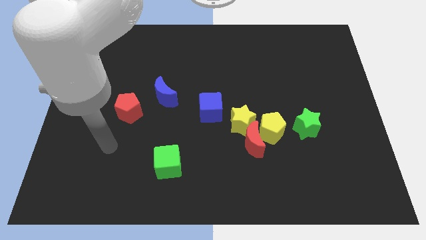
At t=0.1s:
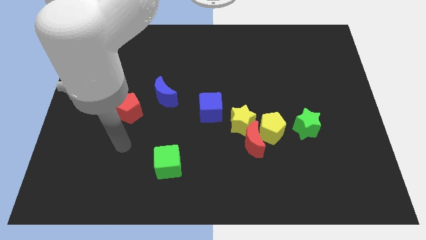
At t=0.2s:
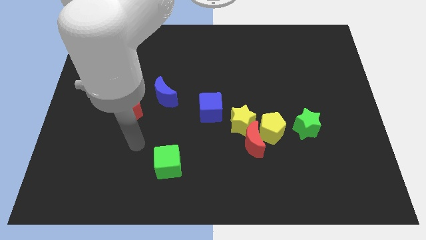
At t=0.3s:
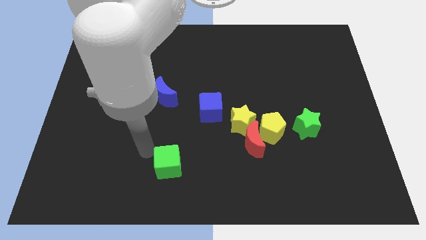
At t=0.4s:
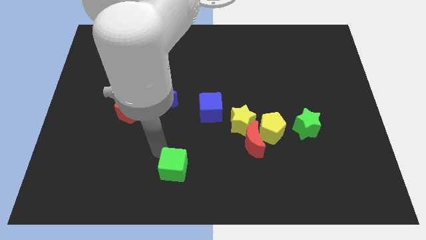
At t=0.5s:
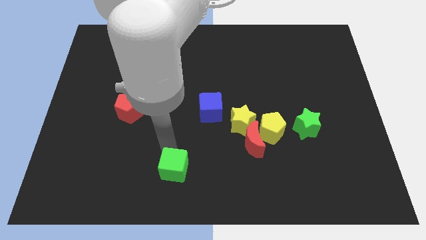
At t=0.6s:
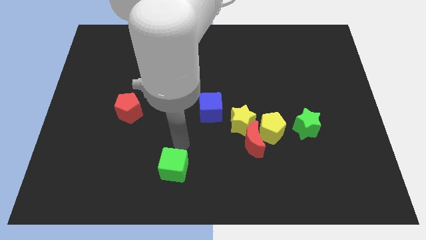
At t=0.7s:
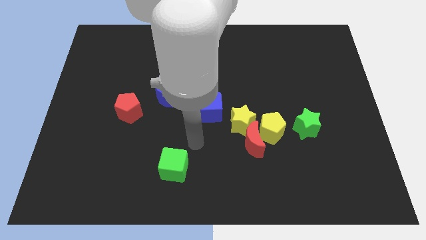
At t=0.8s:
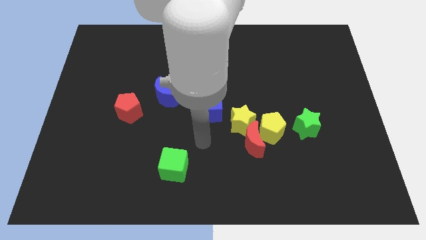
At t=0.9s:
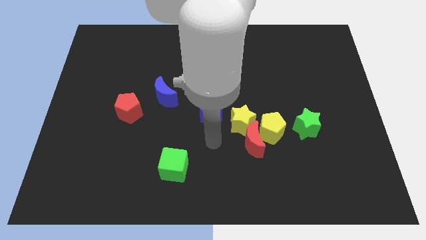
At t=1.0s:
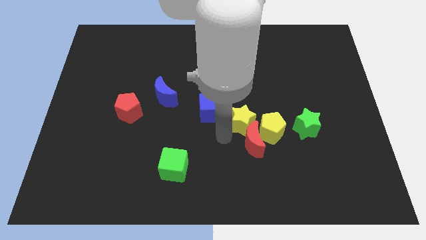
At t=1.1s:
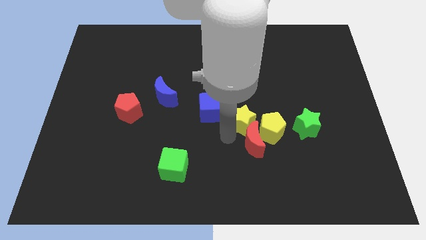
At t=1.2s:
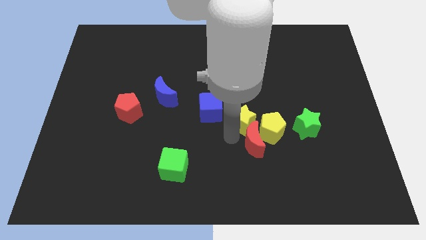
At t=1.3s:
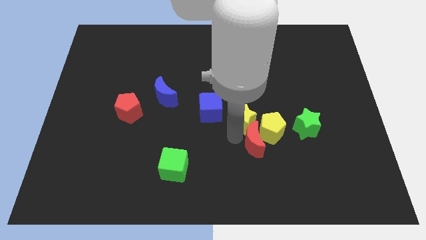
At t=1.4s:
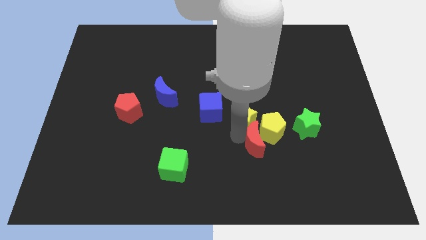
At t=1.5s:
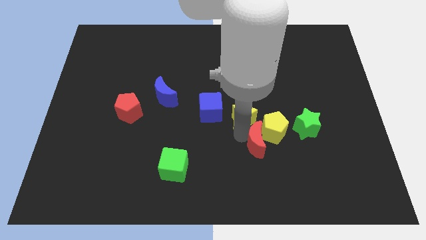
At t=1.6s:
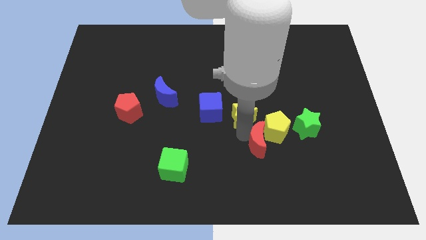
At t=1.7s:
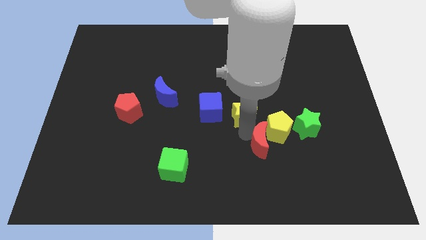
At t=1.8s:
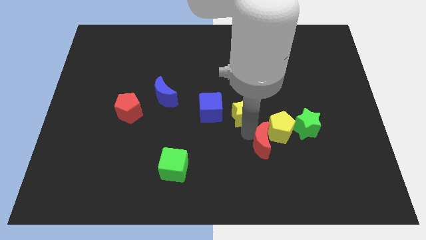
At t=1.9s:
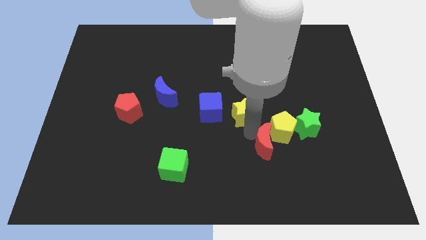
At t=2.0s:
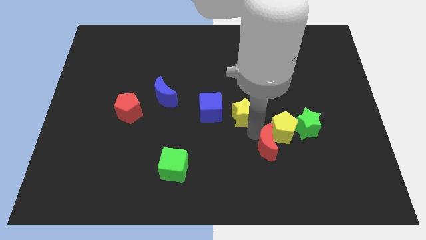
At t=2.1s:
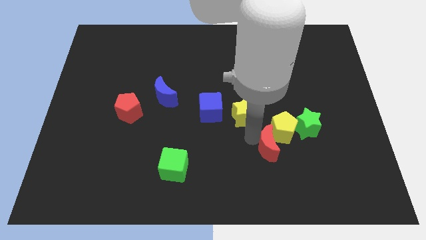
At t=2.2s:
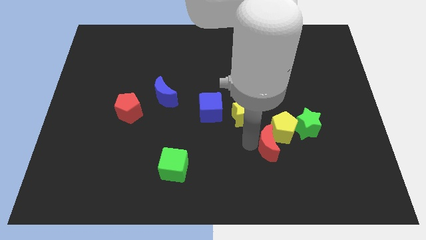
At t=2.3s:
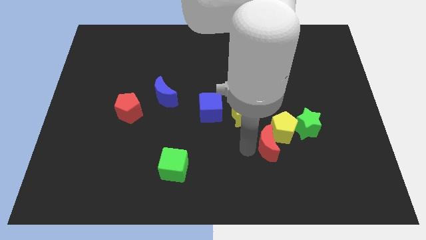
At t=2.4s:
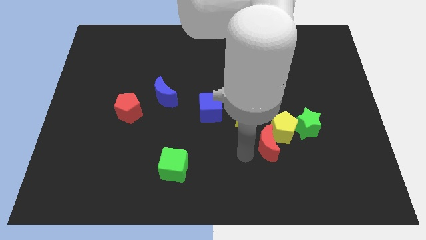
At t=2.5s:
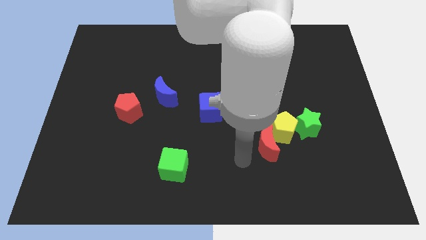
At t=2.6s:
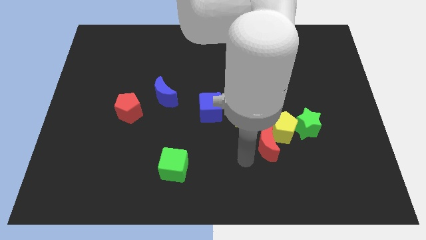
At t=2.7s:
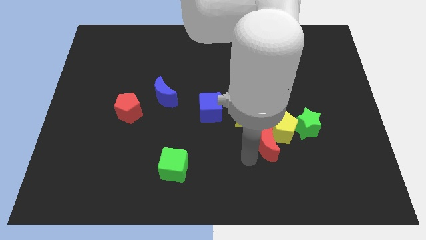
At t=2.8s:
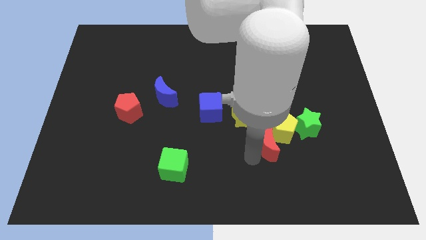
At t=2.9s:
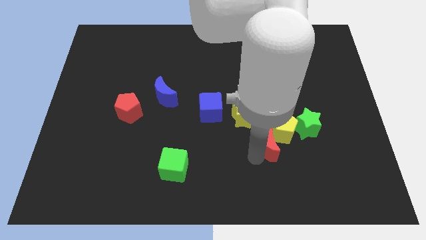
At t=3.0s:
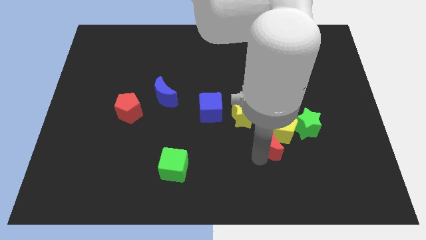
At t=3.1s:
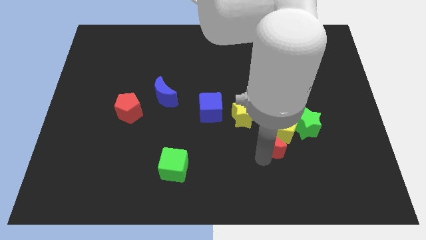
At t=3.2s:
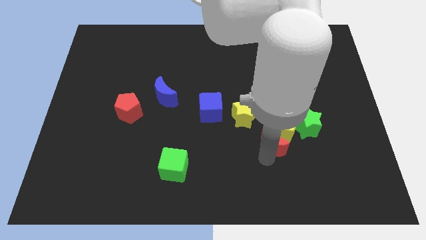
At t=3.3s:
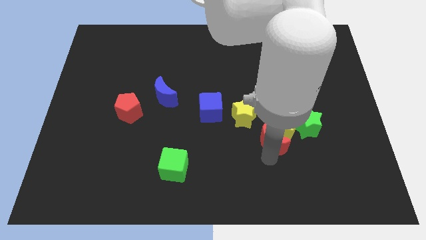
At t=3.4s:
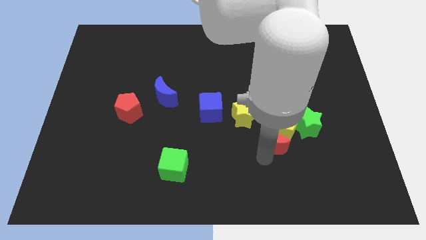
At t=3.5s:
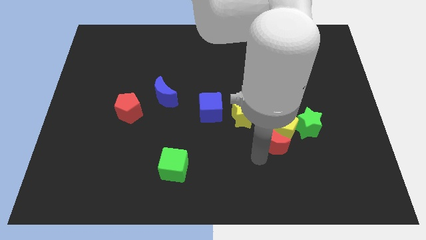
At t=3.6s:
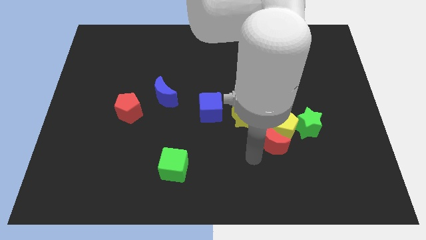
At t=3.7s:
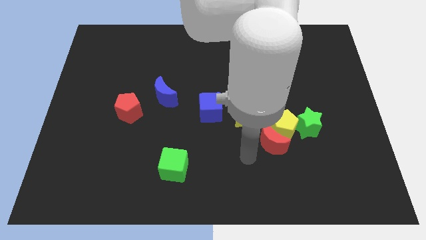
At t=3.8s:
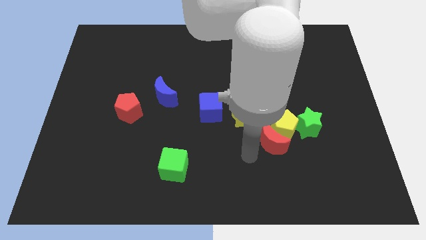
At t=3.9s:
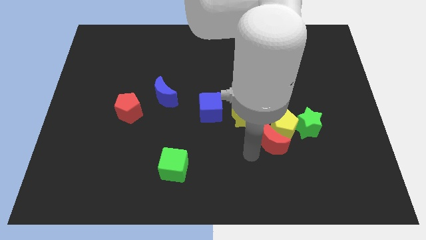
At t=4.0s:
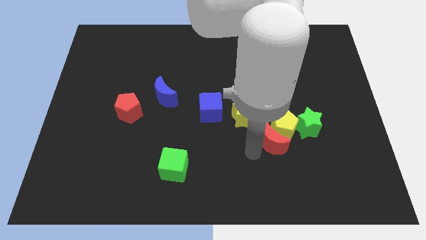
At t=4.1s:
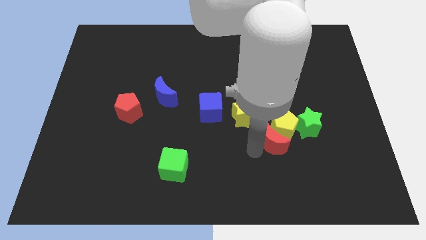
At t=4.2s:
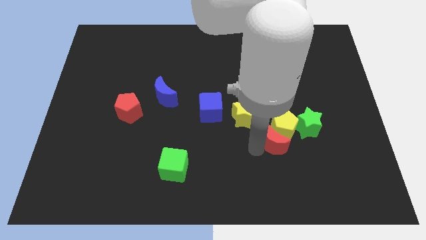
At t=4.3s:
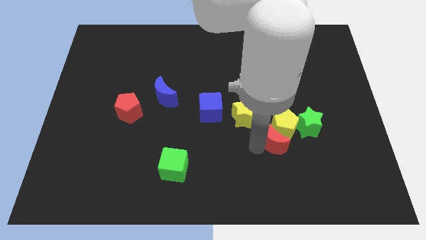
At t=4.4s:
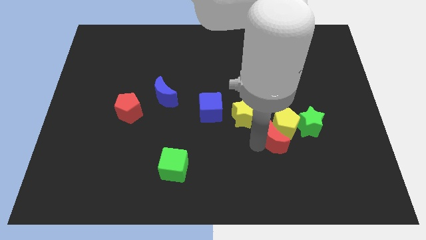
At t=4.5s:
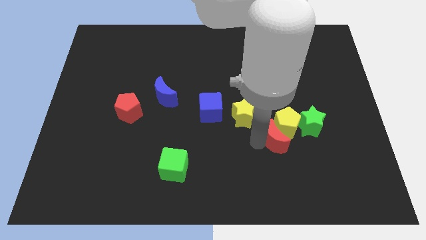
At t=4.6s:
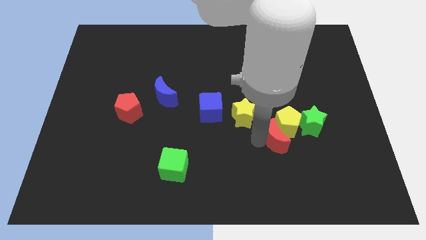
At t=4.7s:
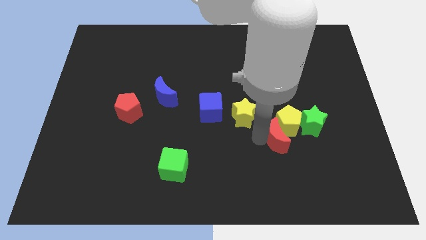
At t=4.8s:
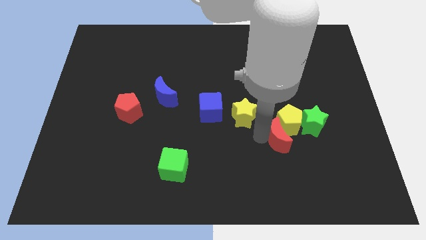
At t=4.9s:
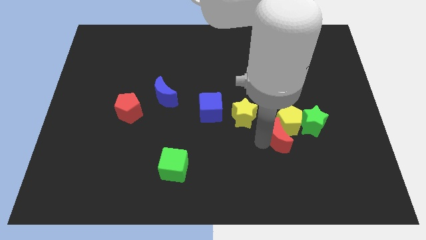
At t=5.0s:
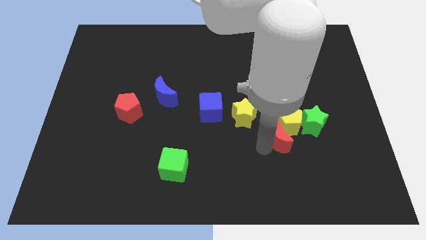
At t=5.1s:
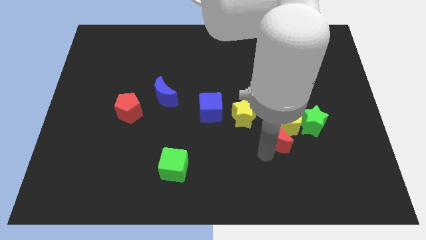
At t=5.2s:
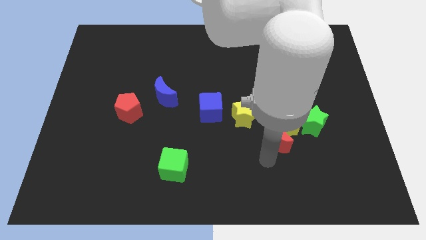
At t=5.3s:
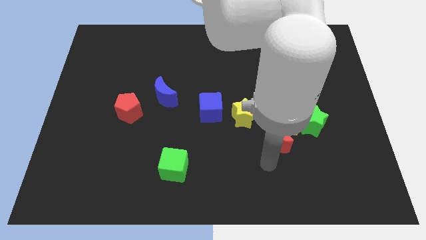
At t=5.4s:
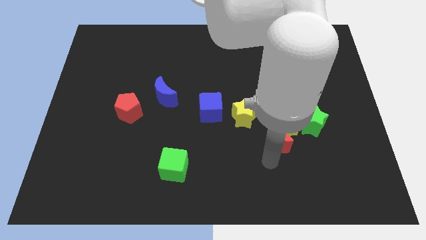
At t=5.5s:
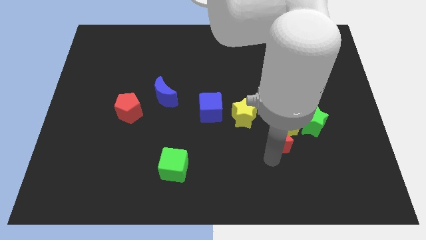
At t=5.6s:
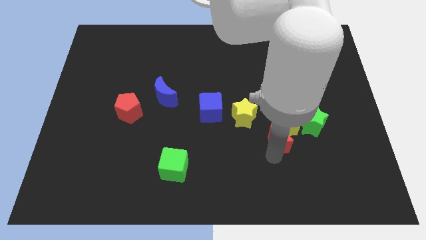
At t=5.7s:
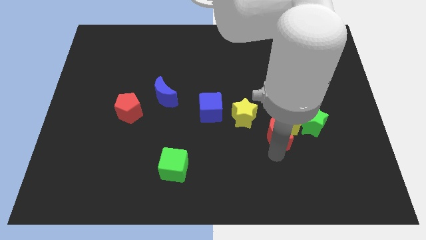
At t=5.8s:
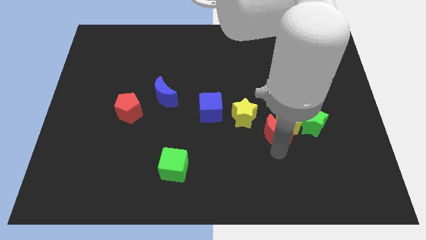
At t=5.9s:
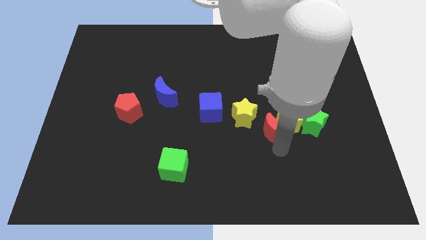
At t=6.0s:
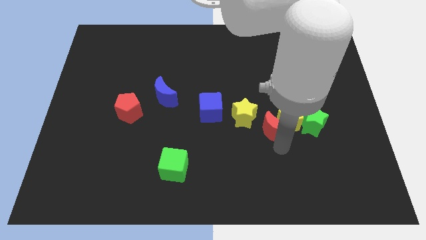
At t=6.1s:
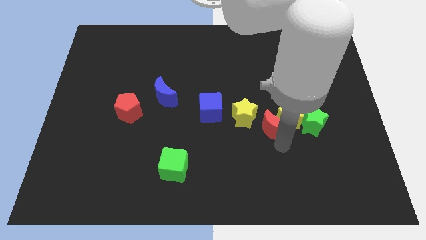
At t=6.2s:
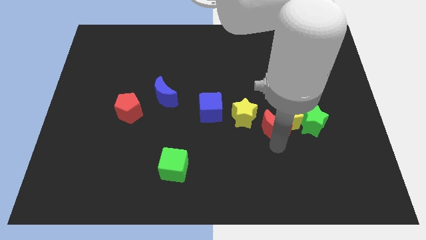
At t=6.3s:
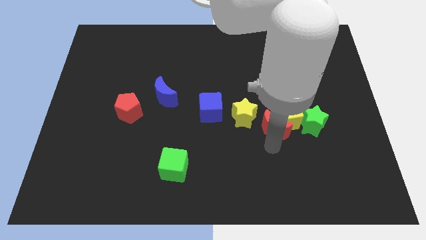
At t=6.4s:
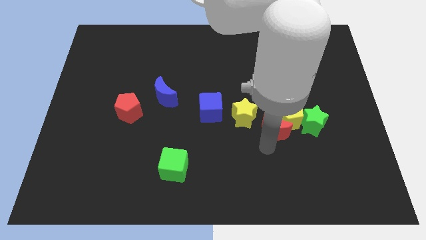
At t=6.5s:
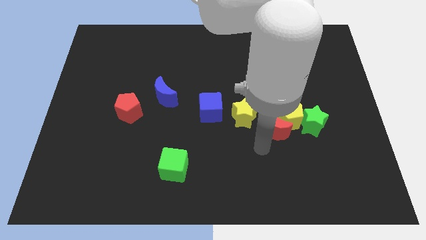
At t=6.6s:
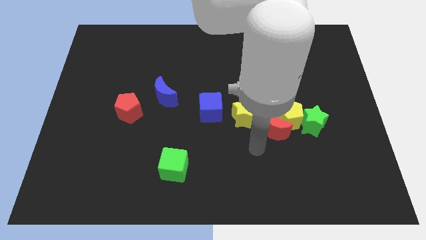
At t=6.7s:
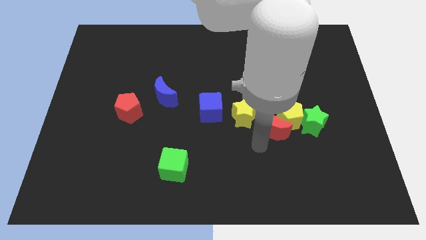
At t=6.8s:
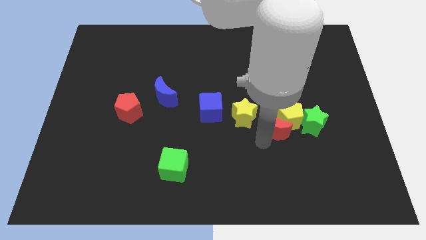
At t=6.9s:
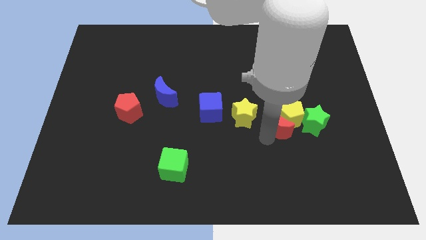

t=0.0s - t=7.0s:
slide the red moon a little up and right diagonally

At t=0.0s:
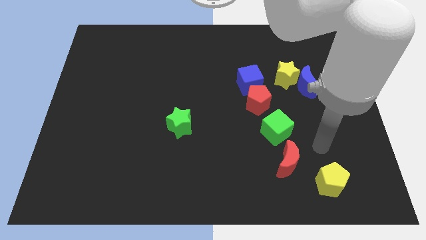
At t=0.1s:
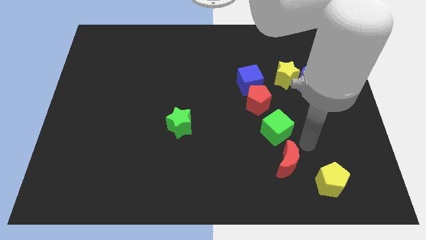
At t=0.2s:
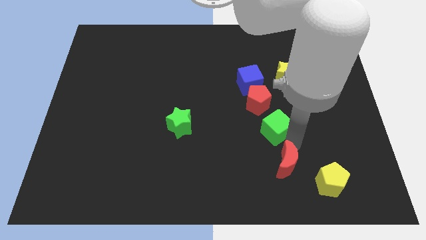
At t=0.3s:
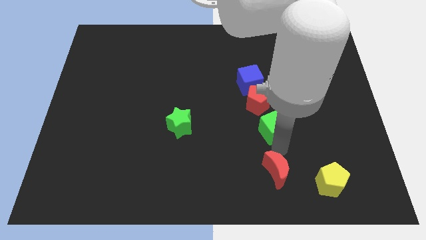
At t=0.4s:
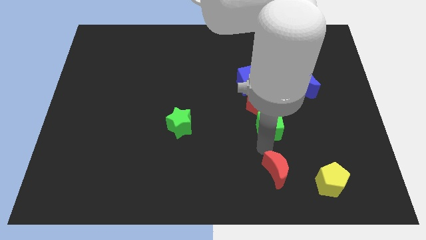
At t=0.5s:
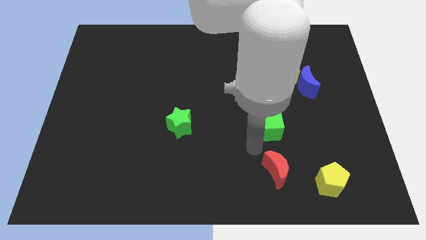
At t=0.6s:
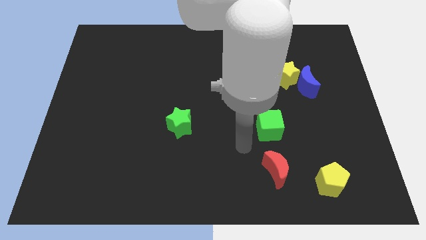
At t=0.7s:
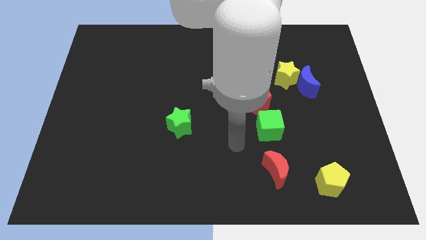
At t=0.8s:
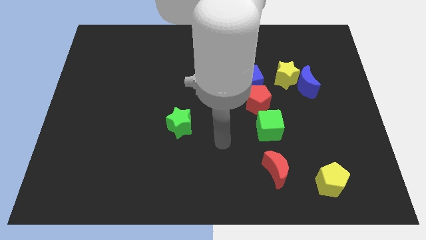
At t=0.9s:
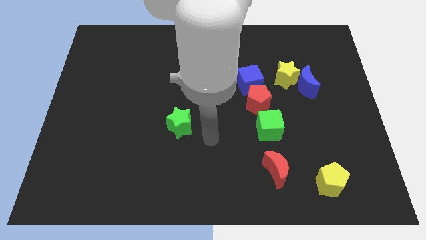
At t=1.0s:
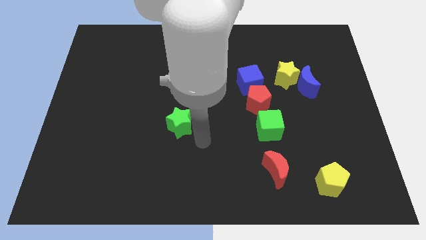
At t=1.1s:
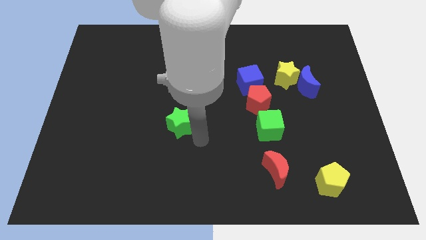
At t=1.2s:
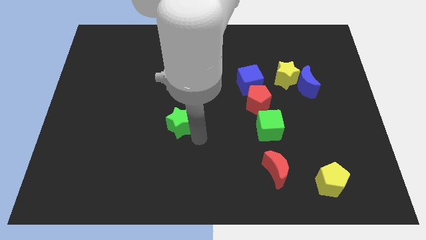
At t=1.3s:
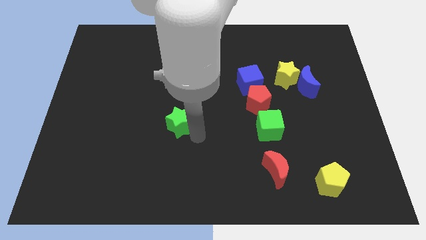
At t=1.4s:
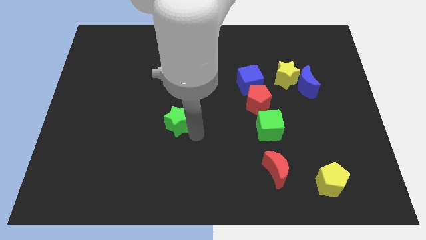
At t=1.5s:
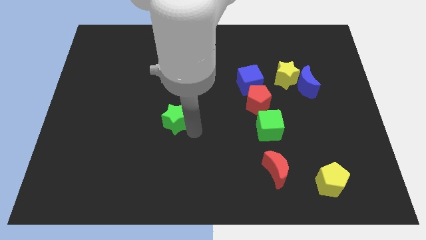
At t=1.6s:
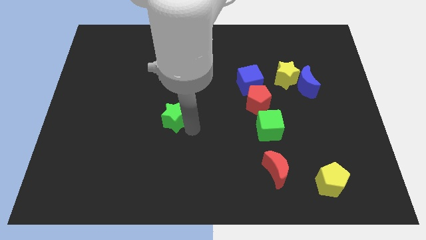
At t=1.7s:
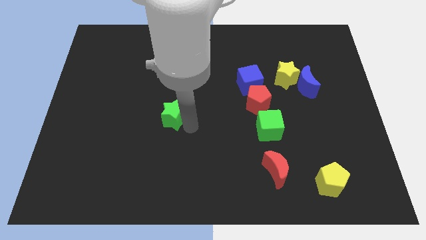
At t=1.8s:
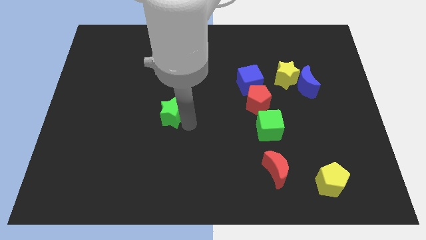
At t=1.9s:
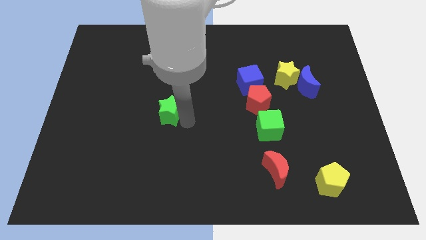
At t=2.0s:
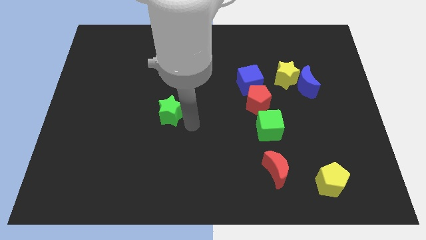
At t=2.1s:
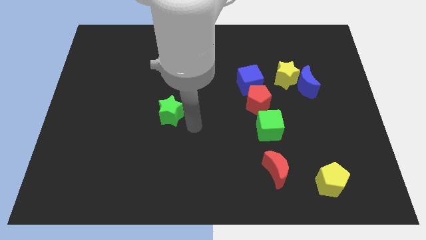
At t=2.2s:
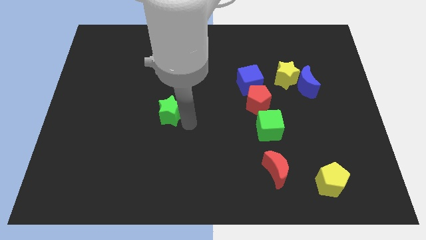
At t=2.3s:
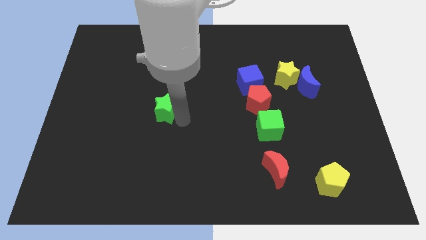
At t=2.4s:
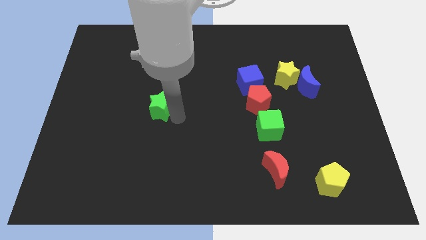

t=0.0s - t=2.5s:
move the green star upwards and then to the left a little
